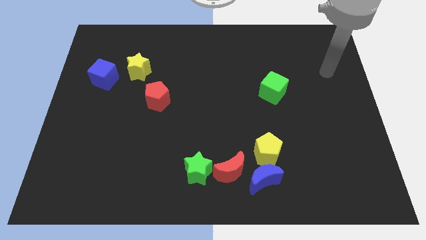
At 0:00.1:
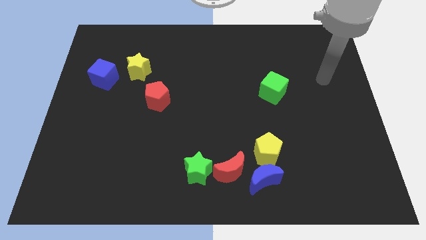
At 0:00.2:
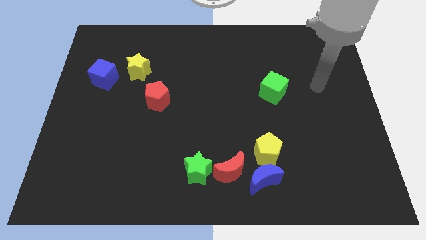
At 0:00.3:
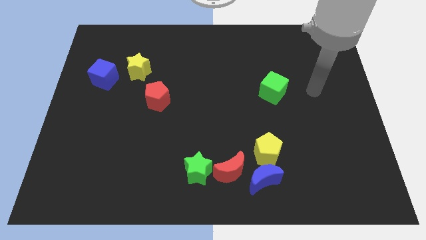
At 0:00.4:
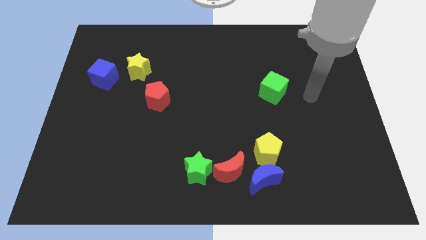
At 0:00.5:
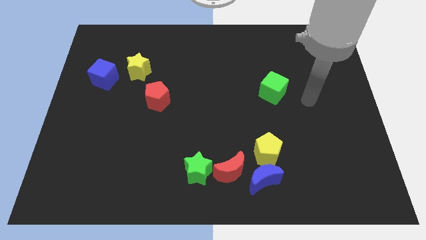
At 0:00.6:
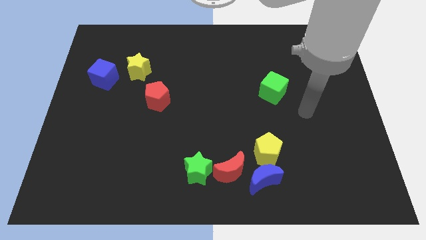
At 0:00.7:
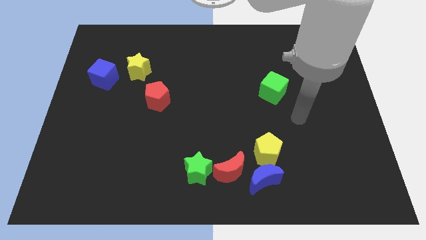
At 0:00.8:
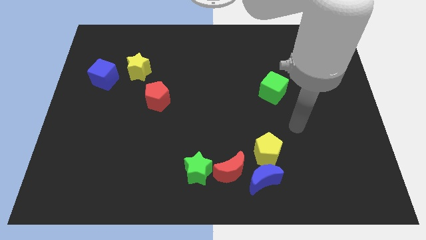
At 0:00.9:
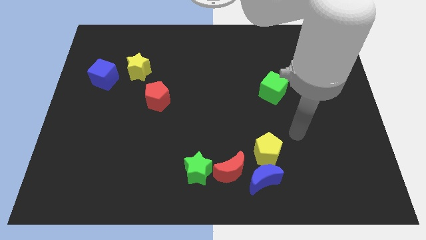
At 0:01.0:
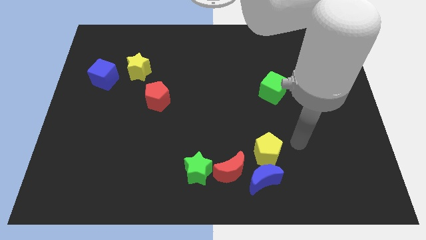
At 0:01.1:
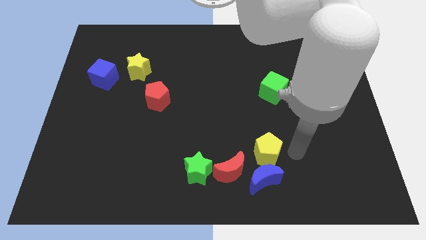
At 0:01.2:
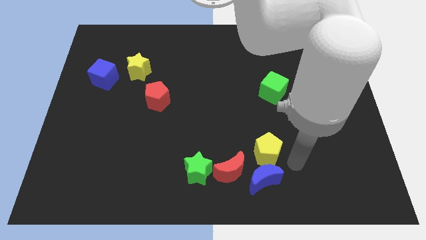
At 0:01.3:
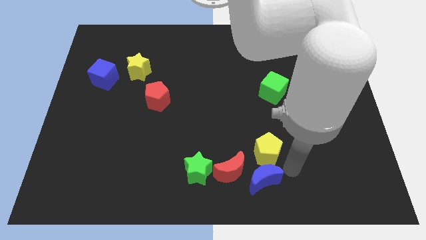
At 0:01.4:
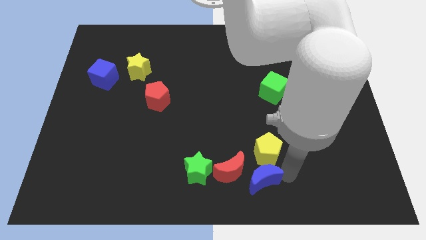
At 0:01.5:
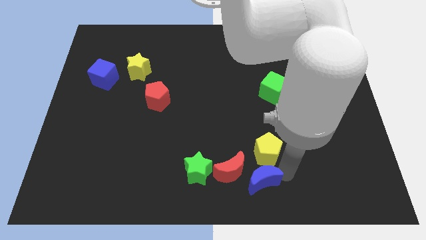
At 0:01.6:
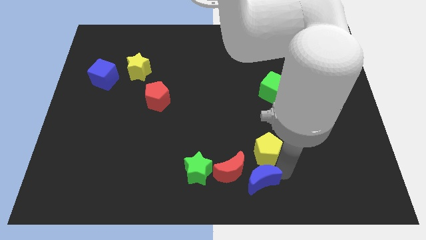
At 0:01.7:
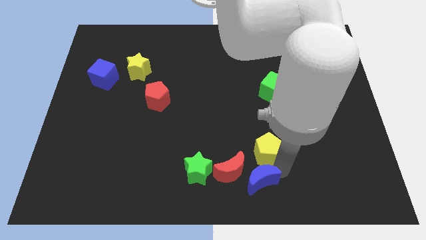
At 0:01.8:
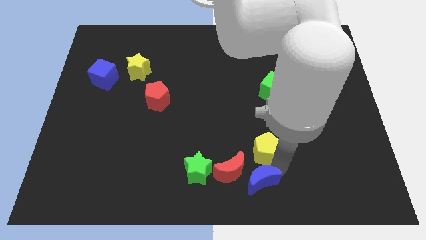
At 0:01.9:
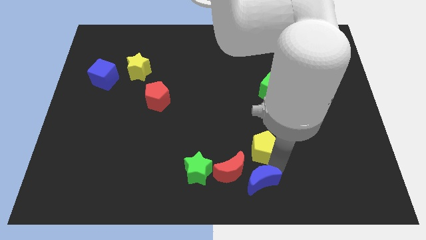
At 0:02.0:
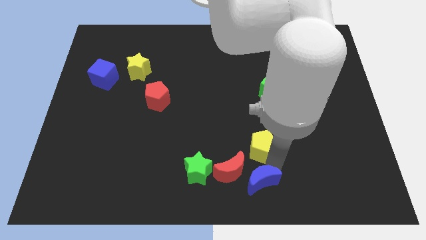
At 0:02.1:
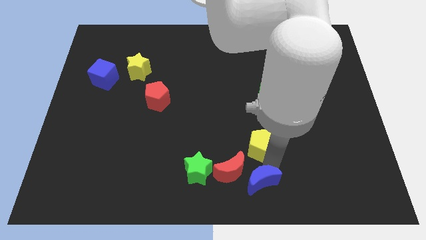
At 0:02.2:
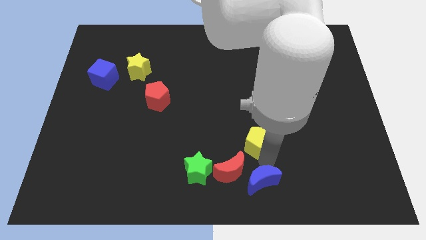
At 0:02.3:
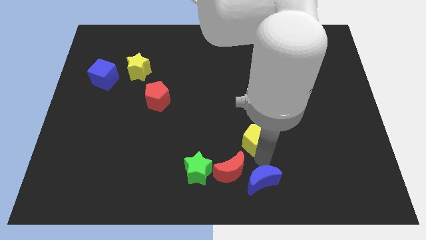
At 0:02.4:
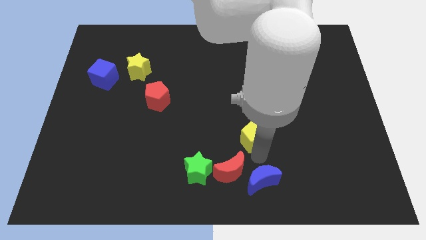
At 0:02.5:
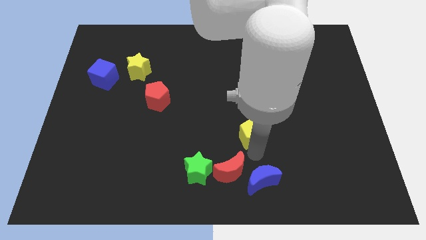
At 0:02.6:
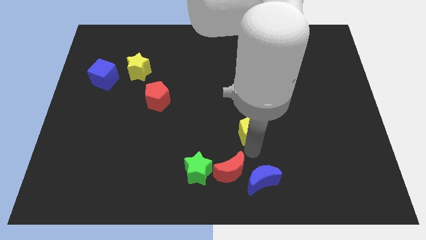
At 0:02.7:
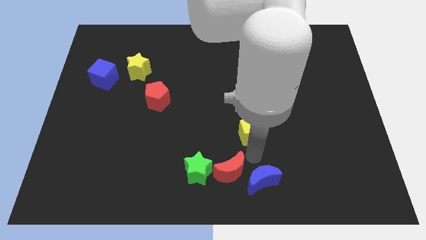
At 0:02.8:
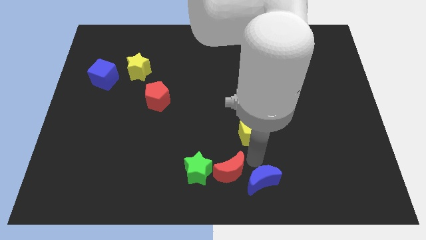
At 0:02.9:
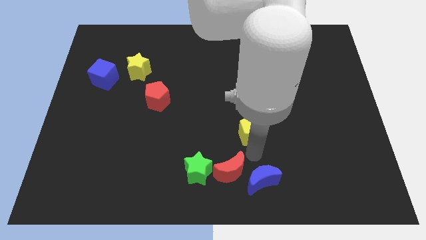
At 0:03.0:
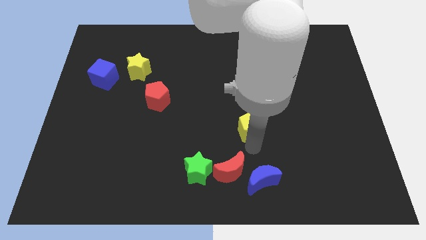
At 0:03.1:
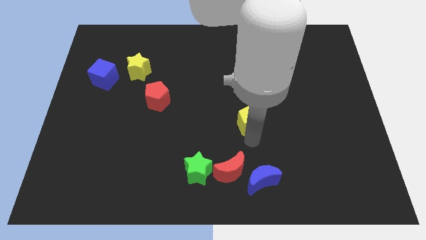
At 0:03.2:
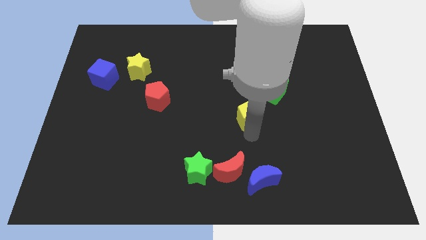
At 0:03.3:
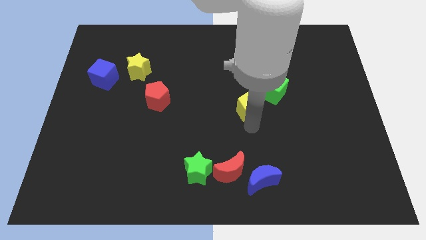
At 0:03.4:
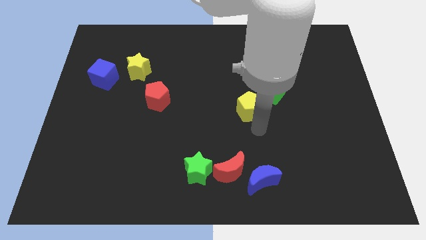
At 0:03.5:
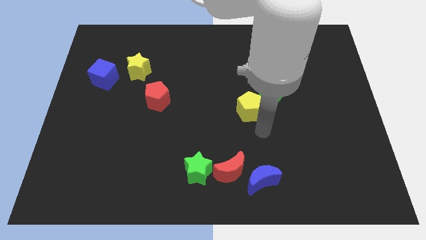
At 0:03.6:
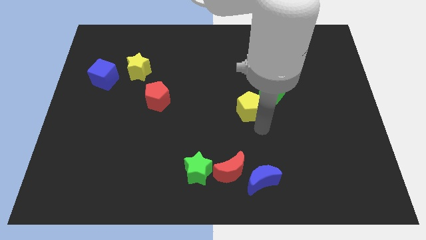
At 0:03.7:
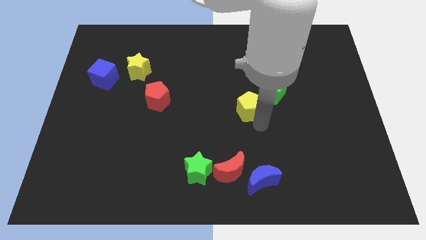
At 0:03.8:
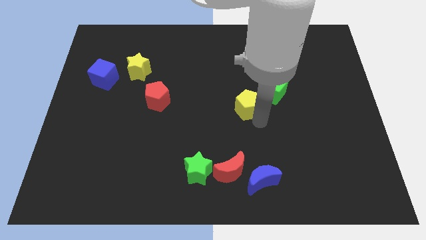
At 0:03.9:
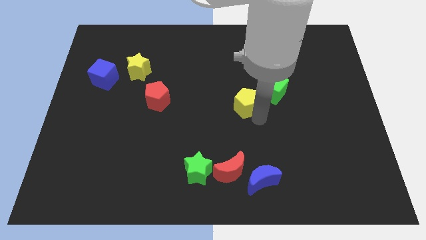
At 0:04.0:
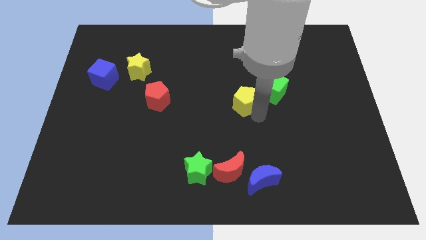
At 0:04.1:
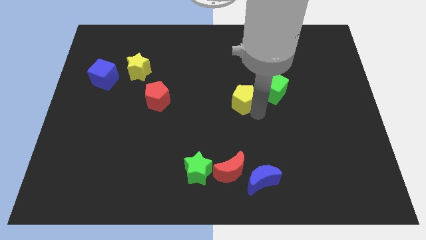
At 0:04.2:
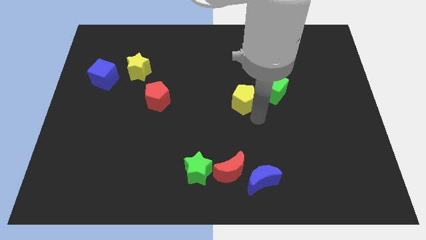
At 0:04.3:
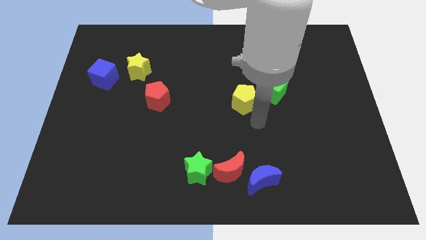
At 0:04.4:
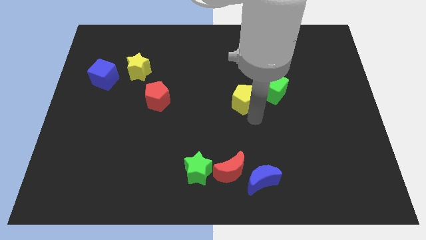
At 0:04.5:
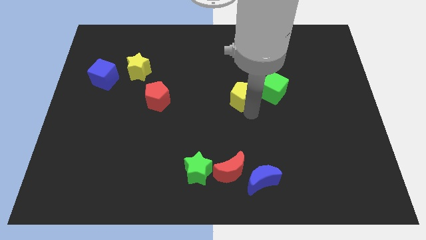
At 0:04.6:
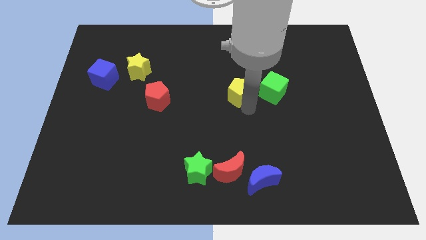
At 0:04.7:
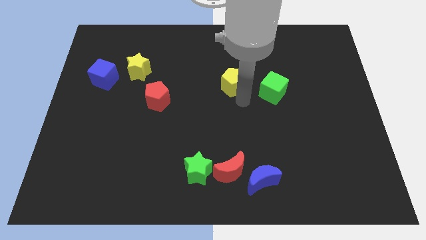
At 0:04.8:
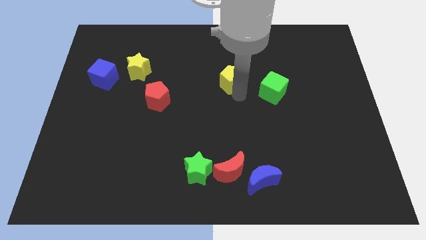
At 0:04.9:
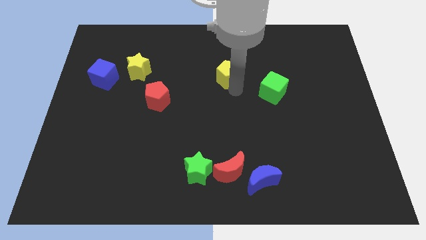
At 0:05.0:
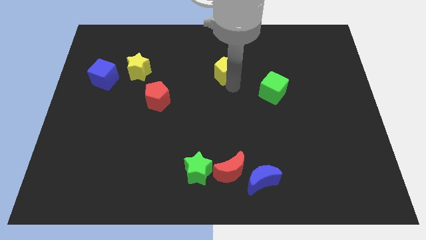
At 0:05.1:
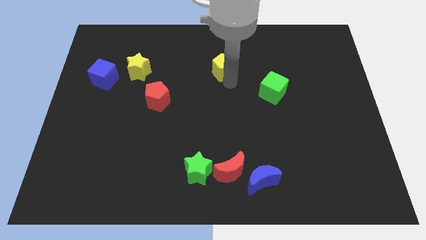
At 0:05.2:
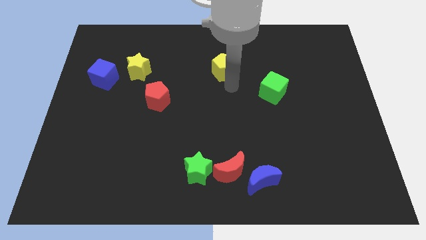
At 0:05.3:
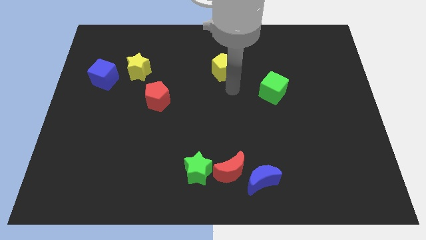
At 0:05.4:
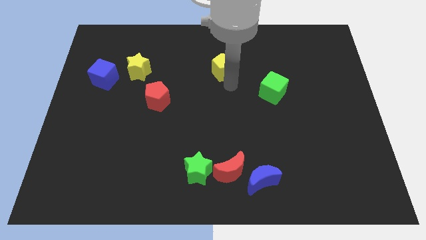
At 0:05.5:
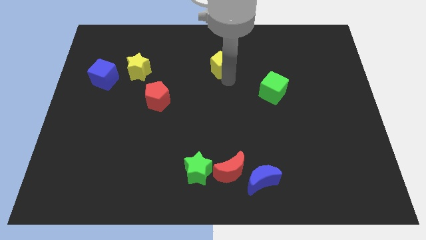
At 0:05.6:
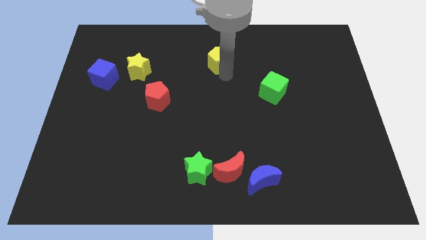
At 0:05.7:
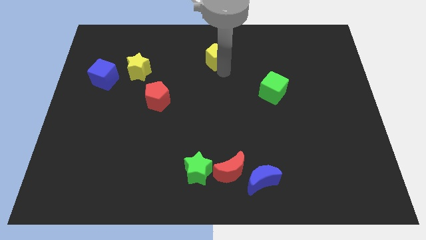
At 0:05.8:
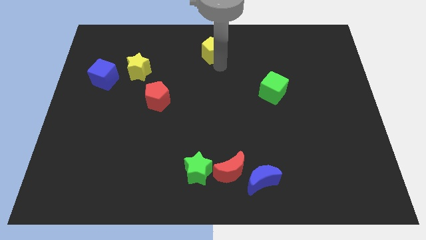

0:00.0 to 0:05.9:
put the yellow pentagon to the towards your base

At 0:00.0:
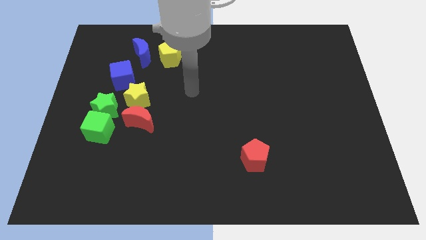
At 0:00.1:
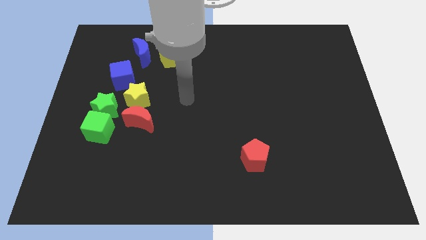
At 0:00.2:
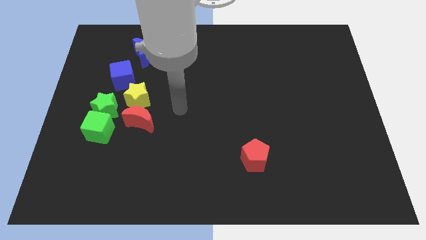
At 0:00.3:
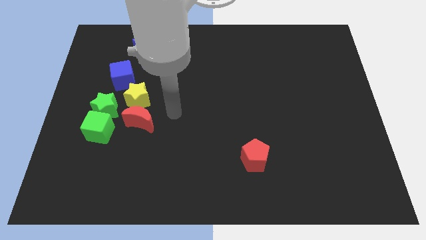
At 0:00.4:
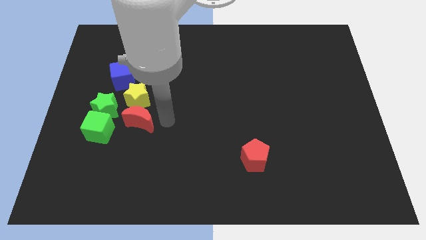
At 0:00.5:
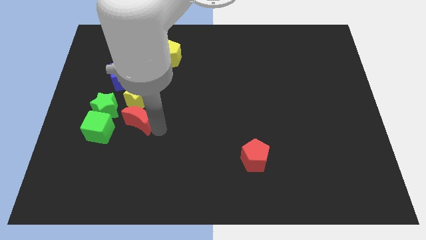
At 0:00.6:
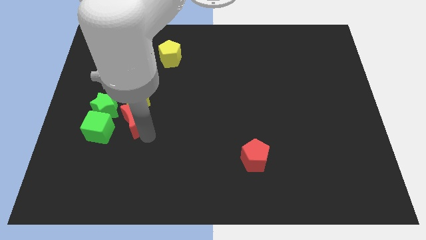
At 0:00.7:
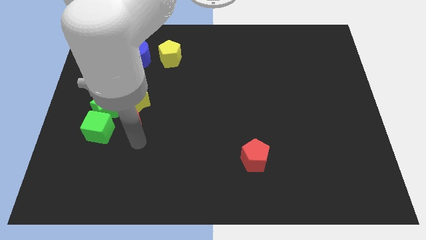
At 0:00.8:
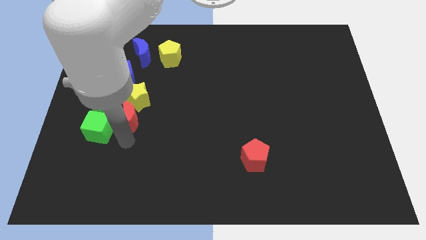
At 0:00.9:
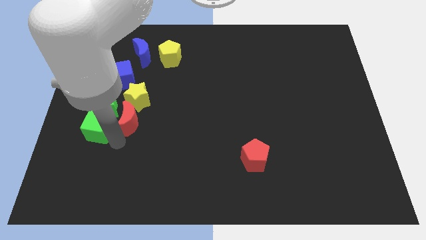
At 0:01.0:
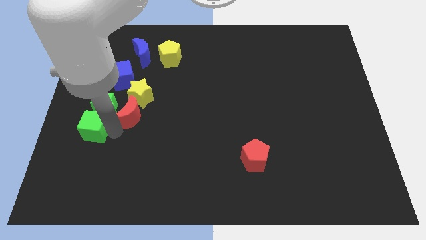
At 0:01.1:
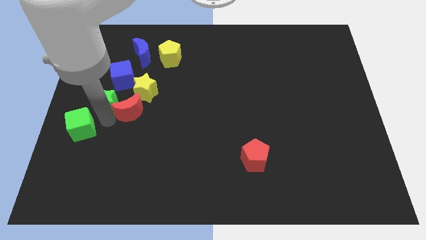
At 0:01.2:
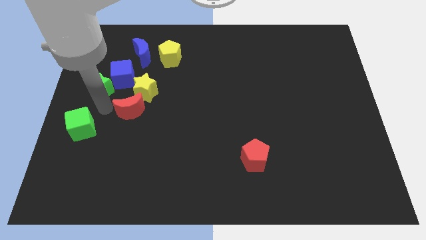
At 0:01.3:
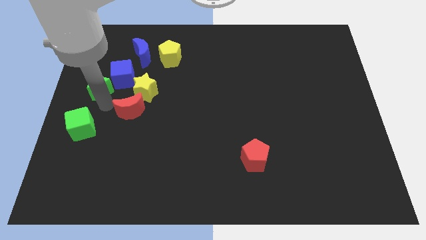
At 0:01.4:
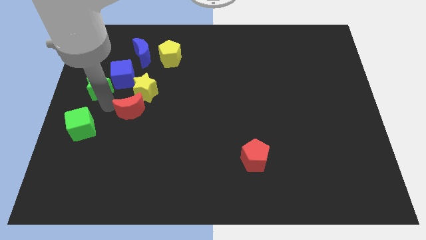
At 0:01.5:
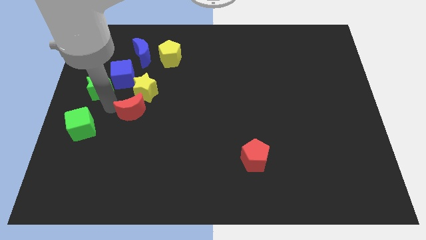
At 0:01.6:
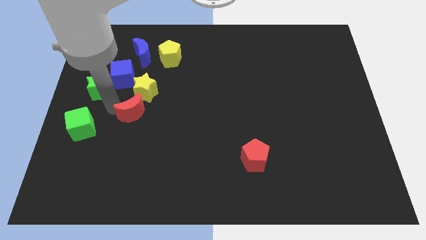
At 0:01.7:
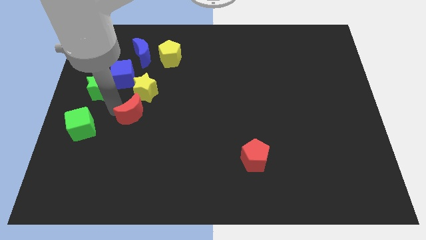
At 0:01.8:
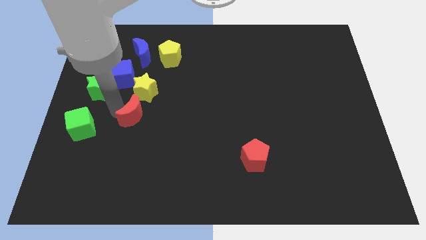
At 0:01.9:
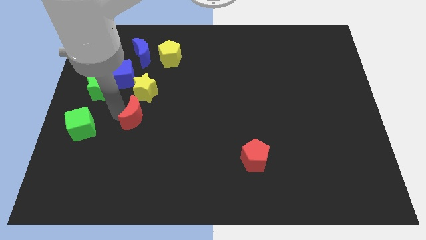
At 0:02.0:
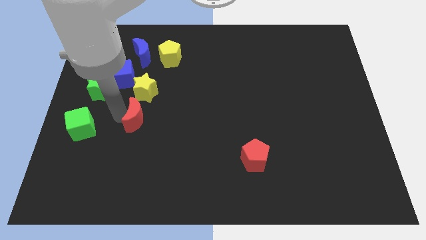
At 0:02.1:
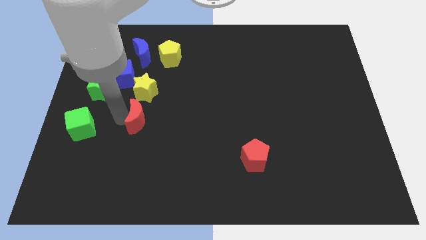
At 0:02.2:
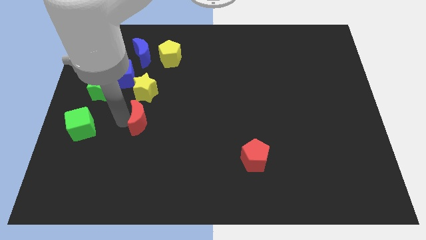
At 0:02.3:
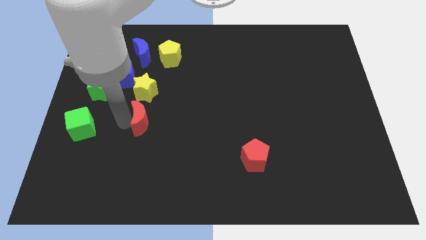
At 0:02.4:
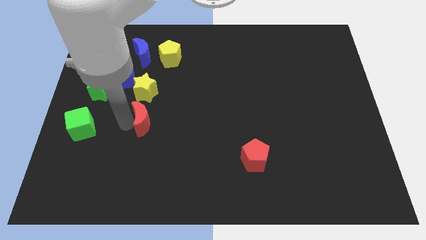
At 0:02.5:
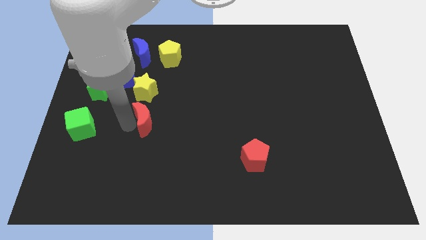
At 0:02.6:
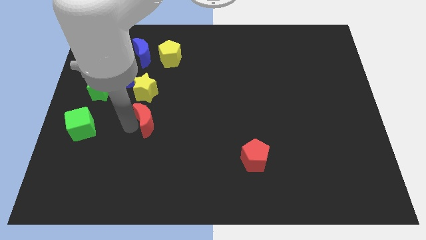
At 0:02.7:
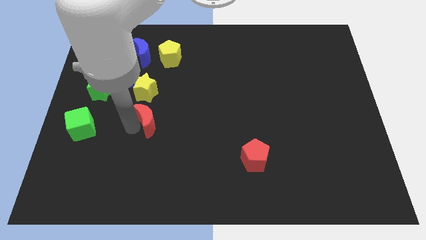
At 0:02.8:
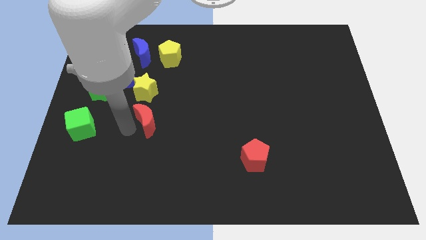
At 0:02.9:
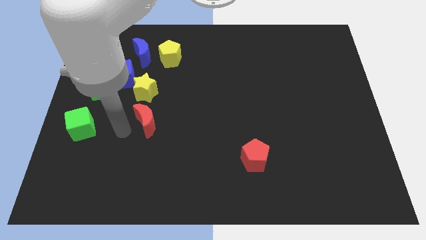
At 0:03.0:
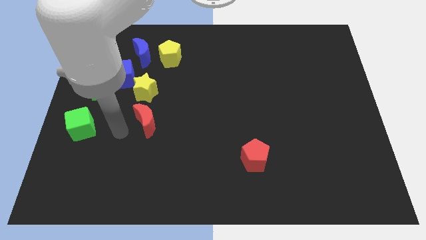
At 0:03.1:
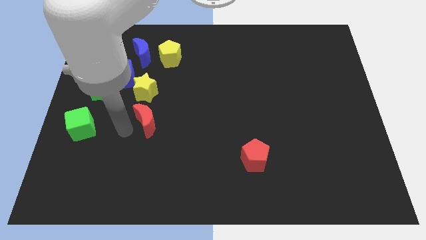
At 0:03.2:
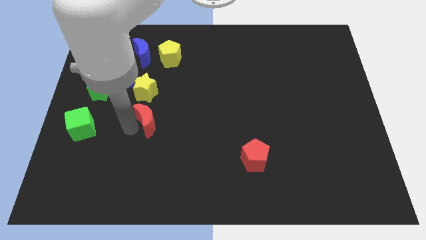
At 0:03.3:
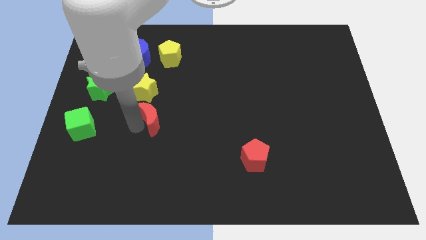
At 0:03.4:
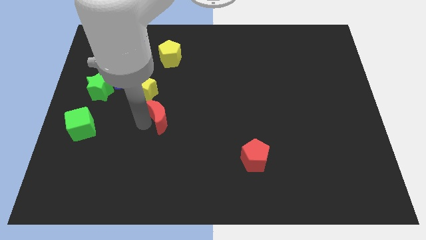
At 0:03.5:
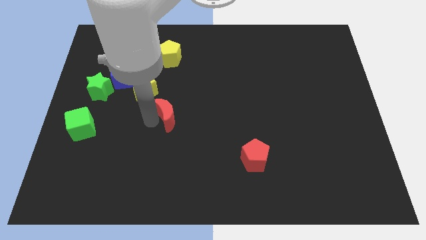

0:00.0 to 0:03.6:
put the red moon to the middle of the board
